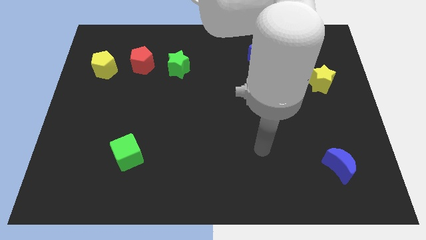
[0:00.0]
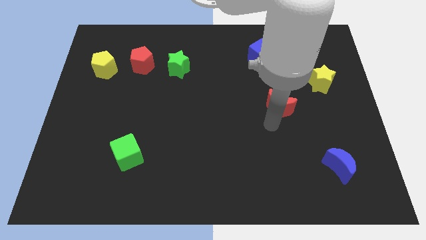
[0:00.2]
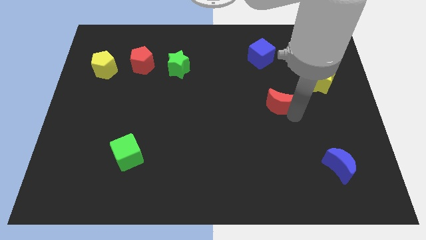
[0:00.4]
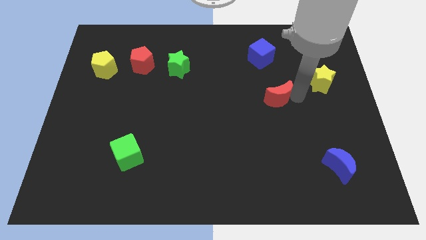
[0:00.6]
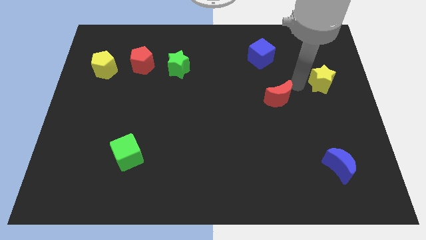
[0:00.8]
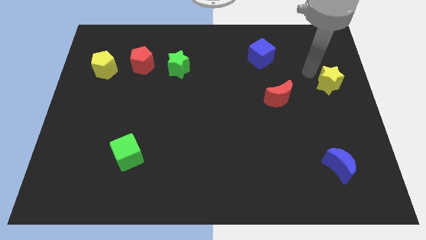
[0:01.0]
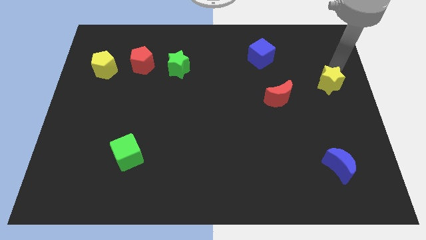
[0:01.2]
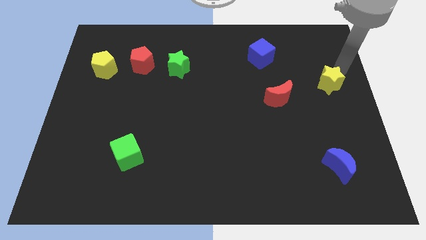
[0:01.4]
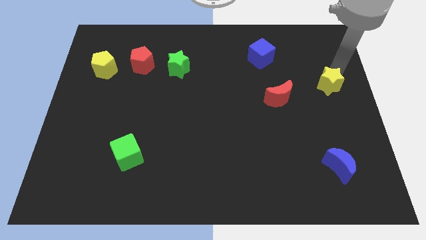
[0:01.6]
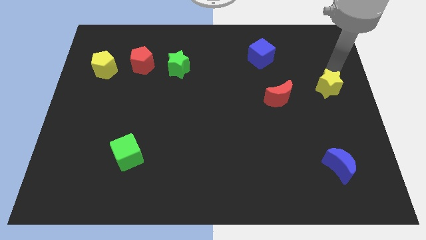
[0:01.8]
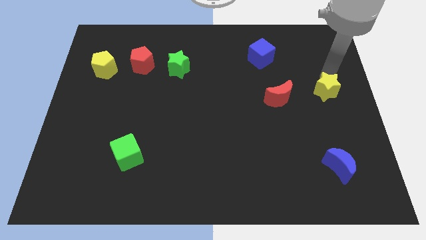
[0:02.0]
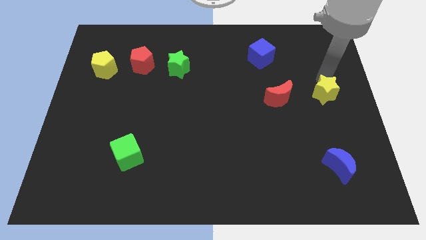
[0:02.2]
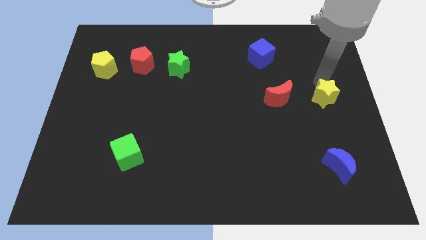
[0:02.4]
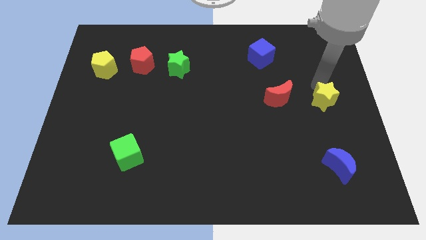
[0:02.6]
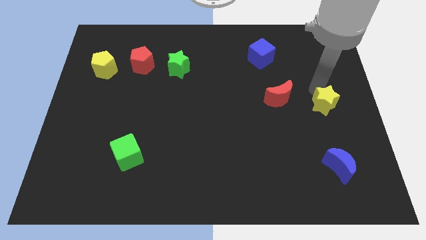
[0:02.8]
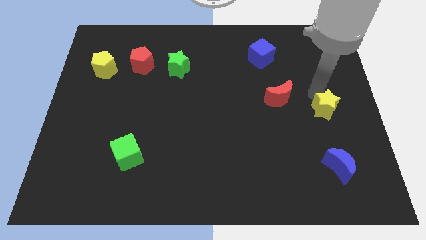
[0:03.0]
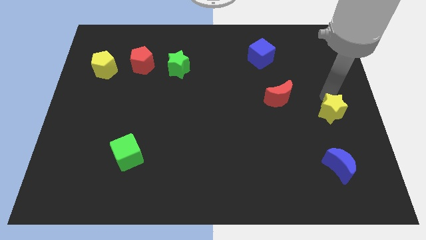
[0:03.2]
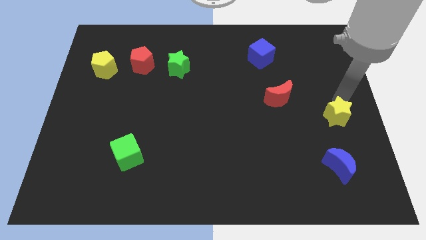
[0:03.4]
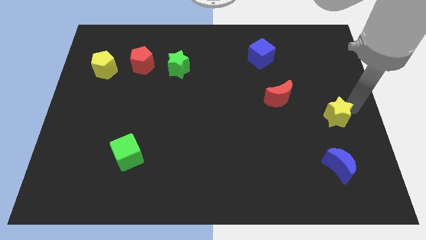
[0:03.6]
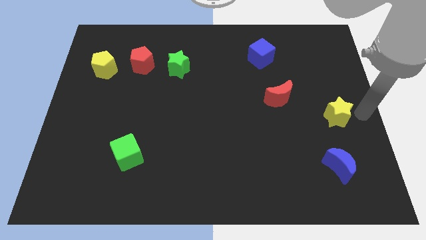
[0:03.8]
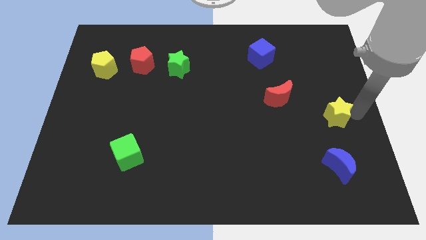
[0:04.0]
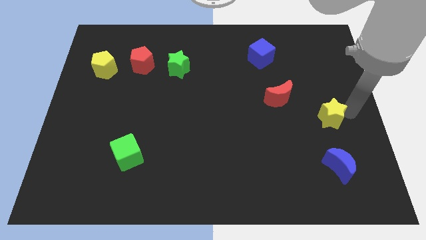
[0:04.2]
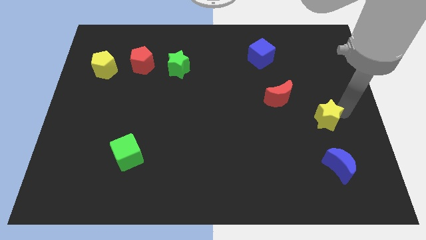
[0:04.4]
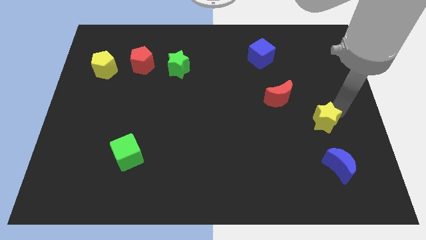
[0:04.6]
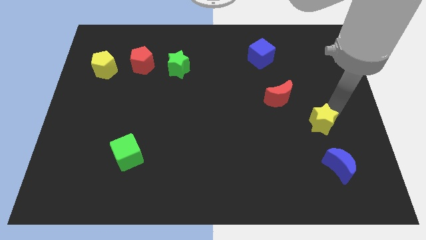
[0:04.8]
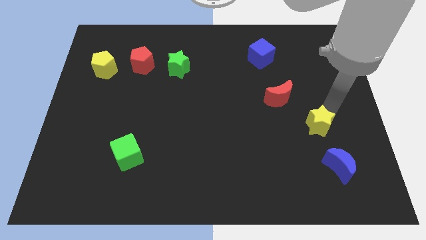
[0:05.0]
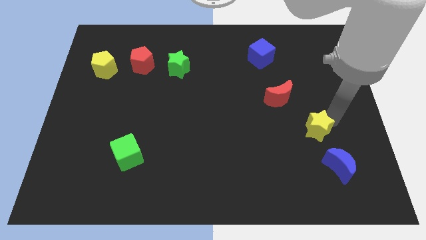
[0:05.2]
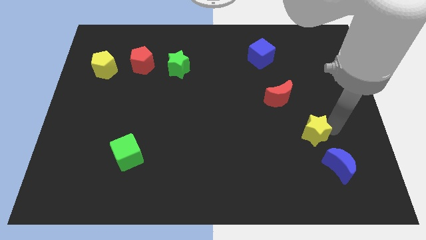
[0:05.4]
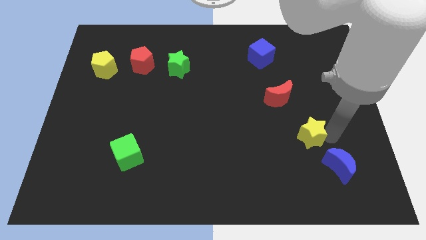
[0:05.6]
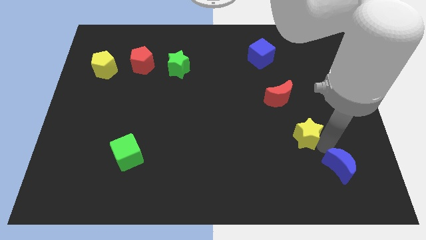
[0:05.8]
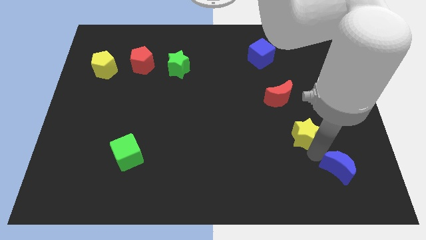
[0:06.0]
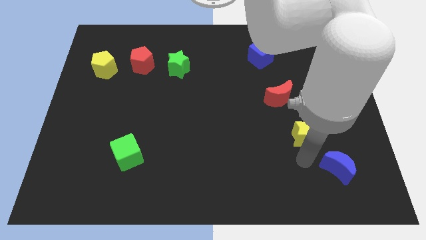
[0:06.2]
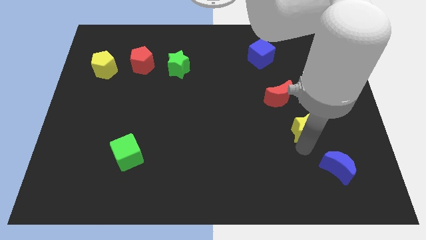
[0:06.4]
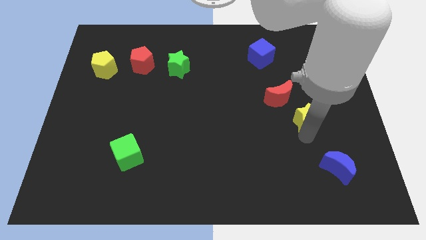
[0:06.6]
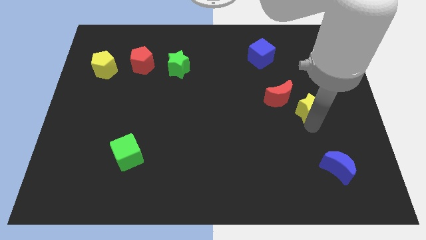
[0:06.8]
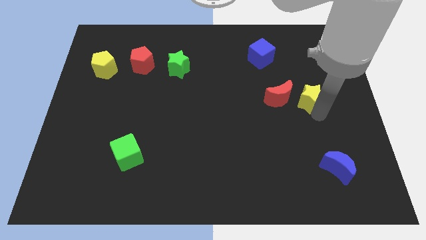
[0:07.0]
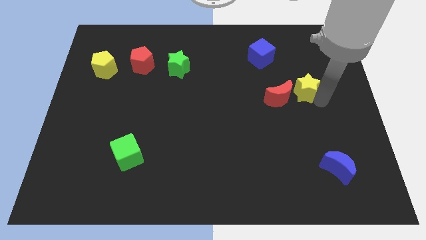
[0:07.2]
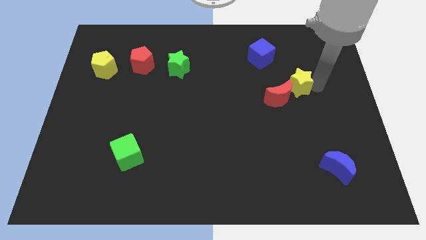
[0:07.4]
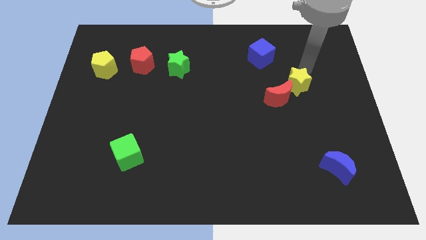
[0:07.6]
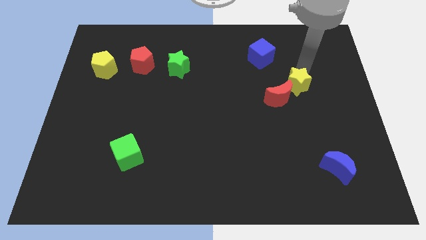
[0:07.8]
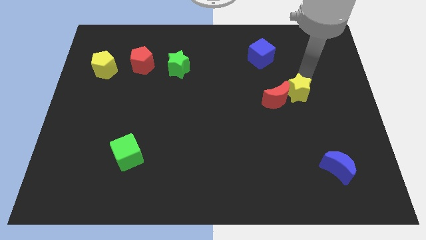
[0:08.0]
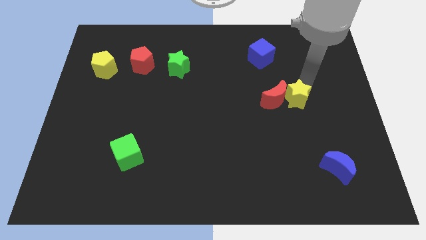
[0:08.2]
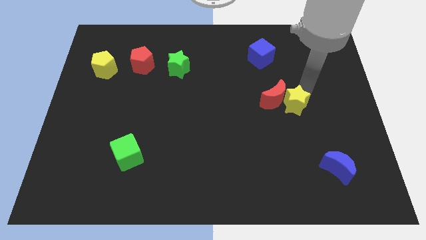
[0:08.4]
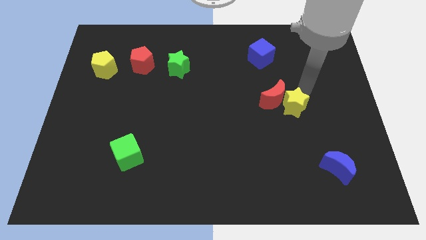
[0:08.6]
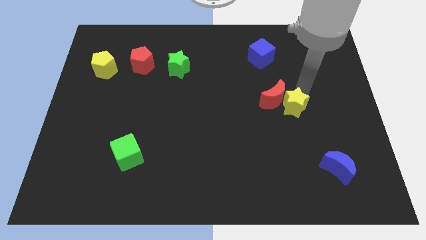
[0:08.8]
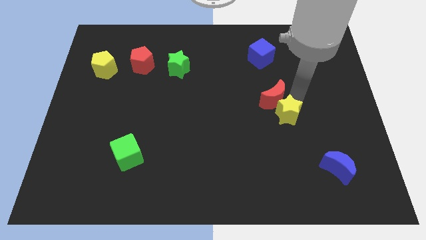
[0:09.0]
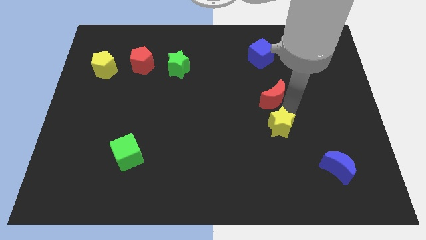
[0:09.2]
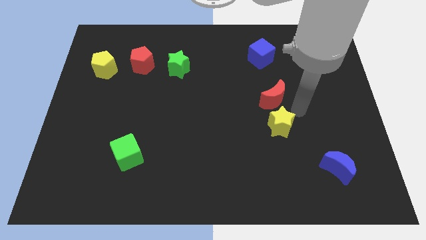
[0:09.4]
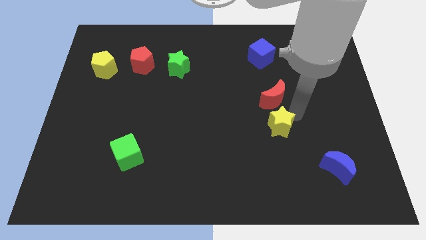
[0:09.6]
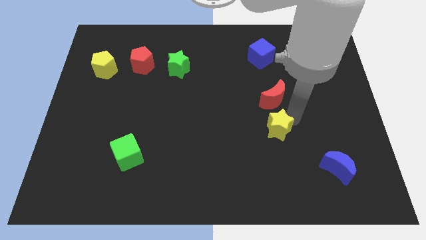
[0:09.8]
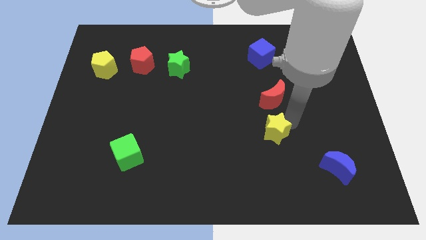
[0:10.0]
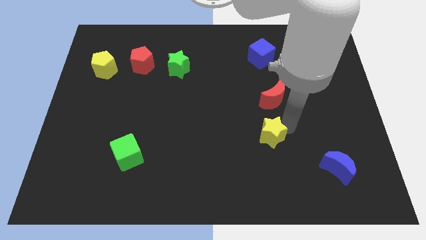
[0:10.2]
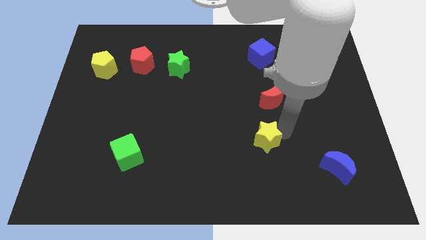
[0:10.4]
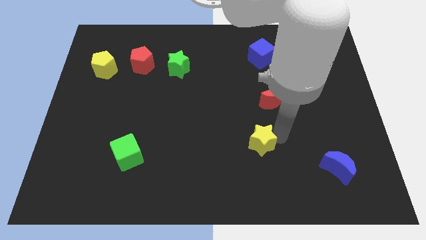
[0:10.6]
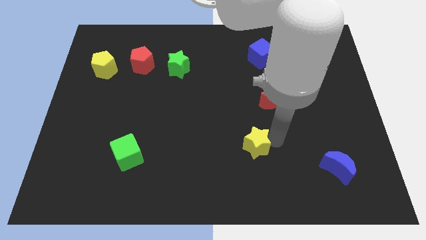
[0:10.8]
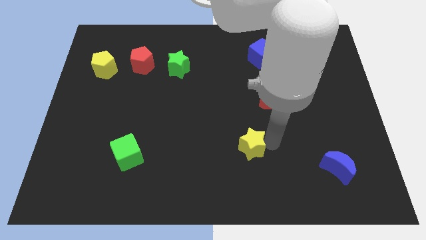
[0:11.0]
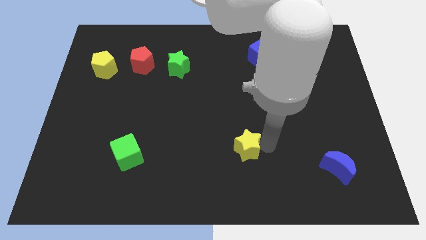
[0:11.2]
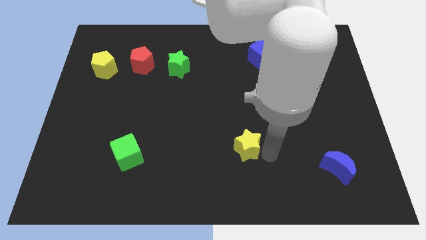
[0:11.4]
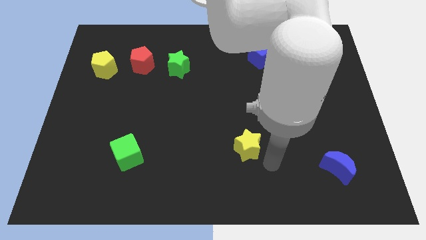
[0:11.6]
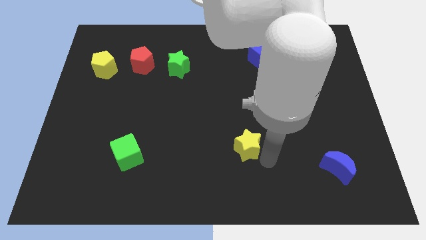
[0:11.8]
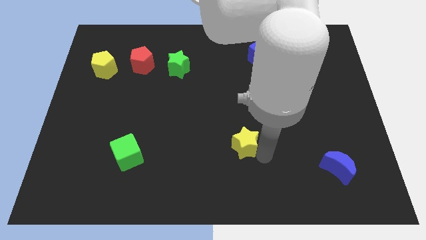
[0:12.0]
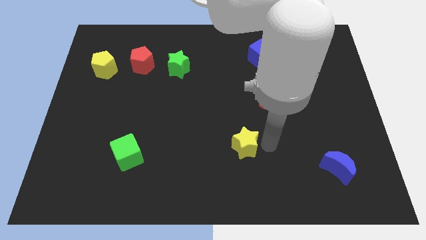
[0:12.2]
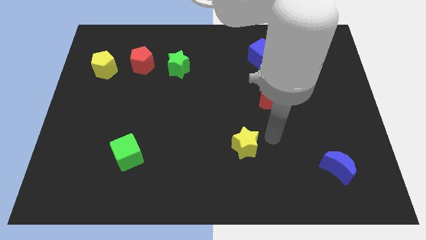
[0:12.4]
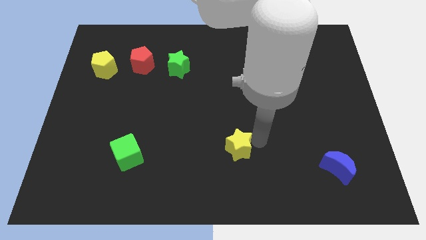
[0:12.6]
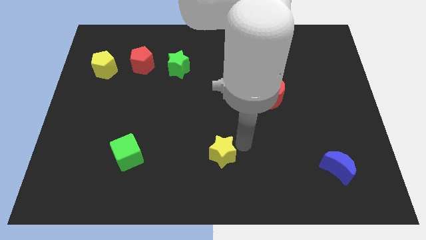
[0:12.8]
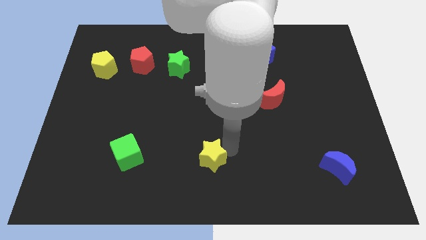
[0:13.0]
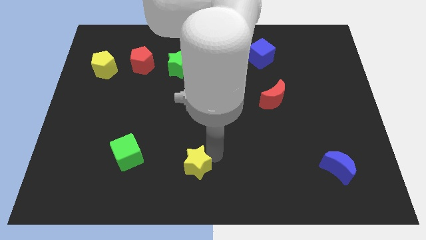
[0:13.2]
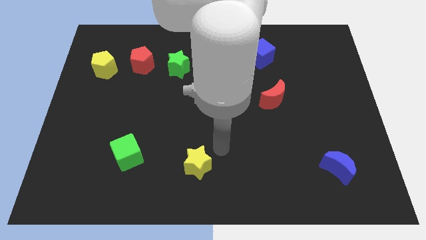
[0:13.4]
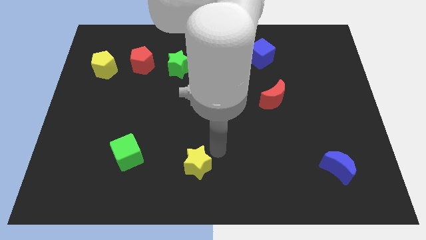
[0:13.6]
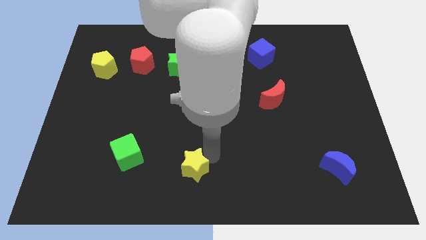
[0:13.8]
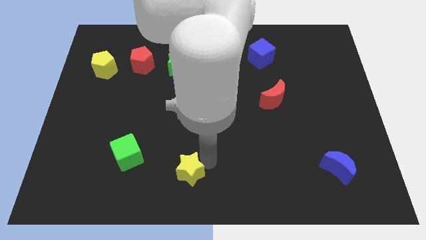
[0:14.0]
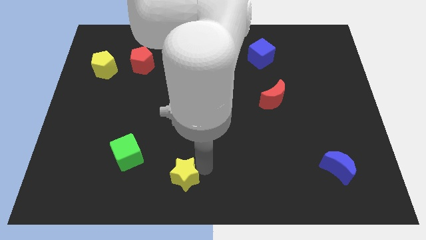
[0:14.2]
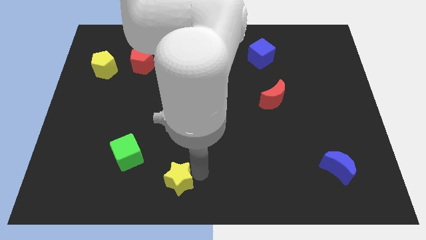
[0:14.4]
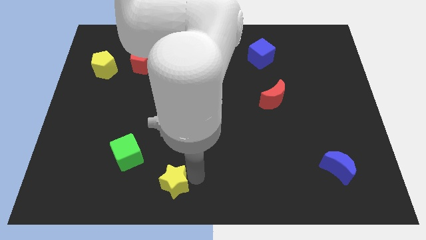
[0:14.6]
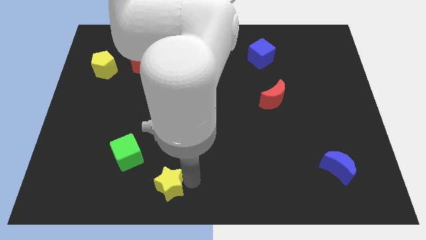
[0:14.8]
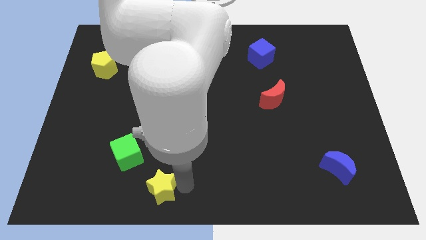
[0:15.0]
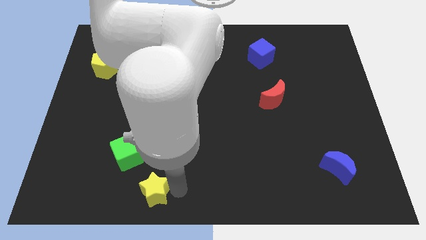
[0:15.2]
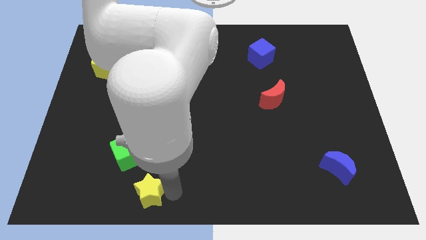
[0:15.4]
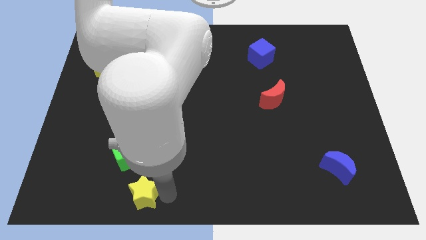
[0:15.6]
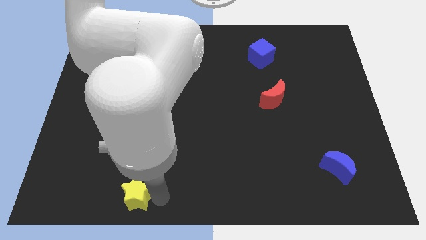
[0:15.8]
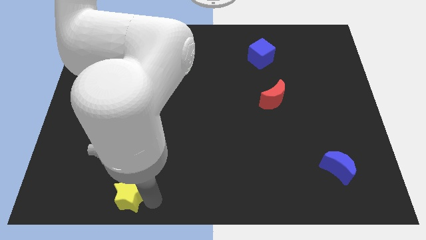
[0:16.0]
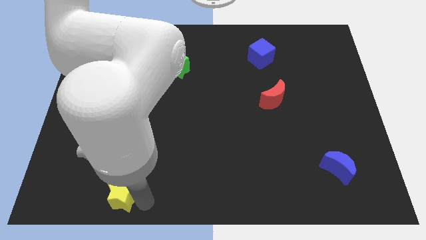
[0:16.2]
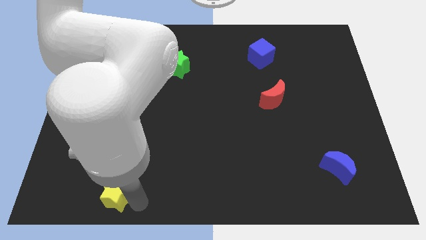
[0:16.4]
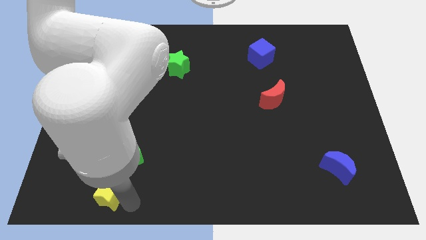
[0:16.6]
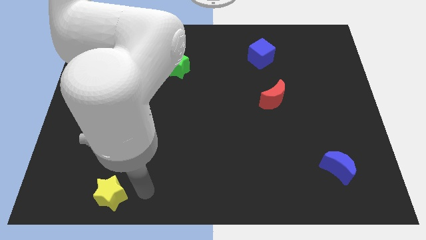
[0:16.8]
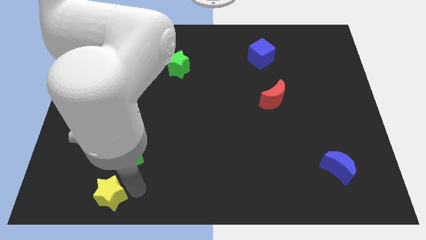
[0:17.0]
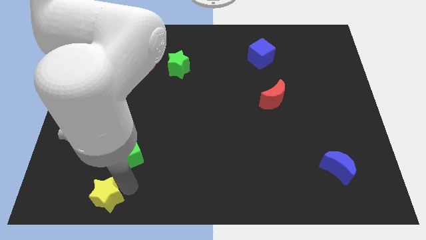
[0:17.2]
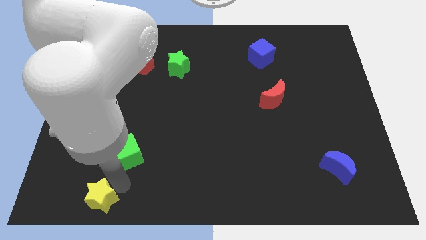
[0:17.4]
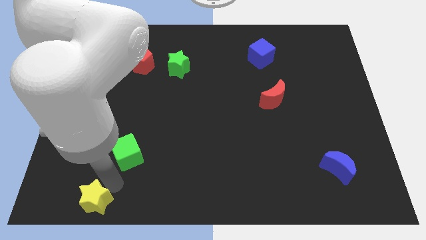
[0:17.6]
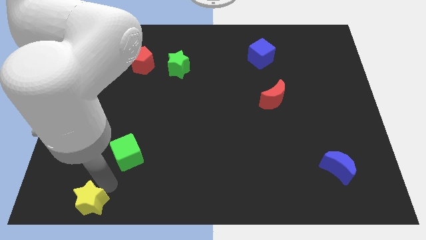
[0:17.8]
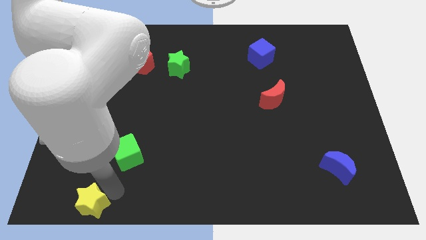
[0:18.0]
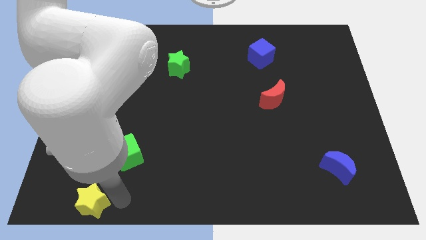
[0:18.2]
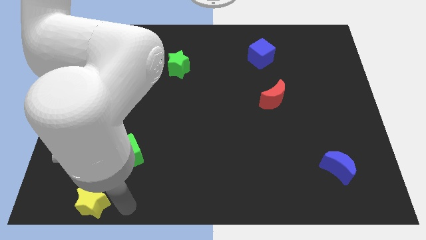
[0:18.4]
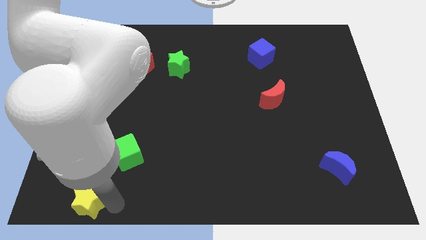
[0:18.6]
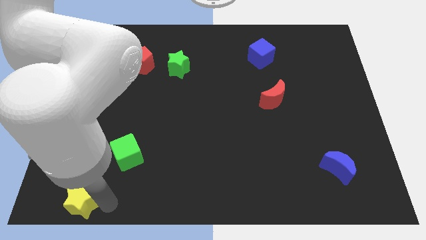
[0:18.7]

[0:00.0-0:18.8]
put the yellow star to the bottom left corner
